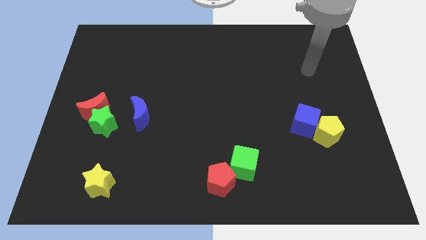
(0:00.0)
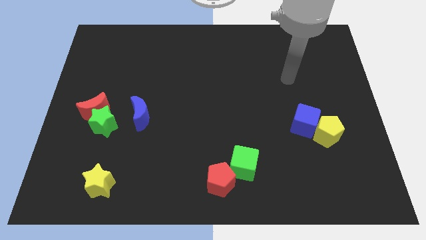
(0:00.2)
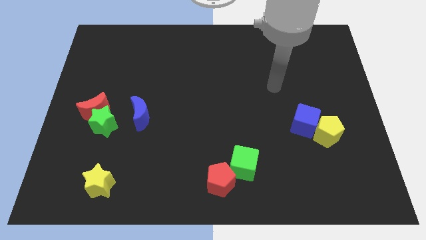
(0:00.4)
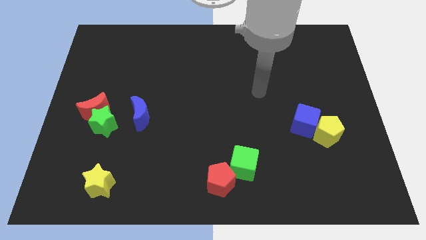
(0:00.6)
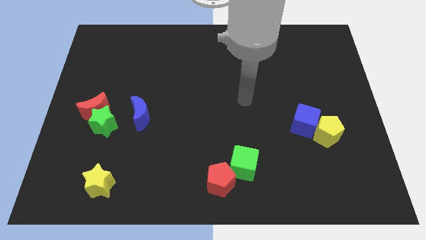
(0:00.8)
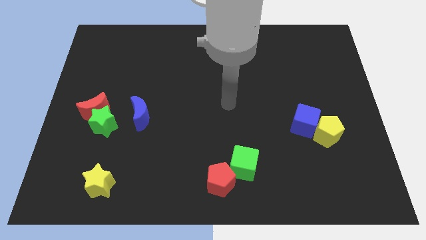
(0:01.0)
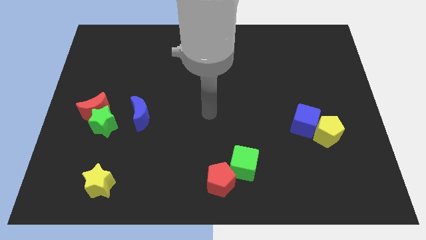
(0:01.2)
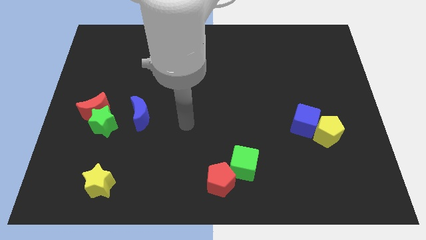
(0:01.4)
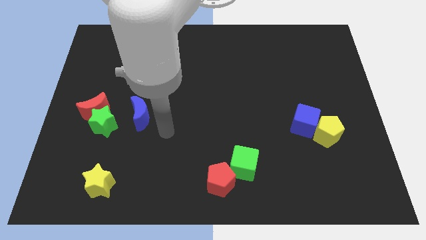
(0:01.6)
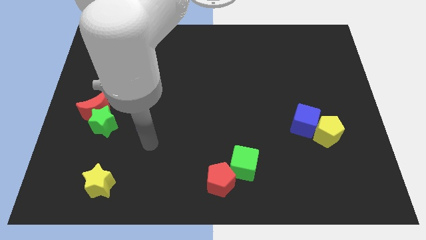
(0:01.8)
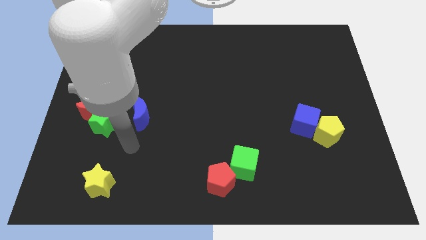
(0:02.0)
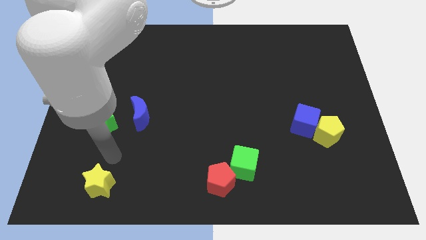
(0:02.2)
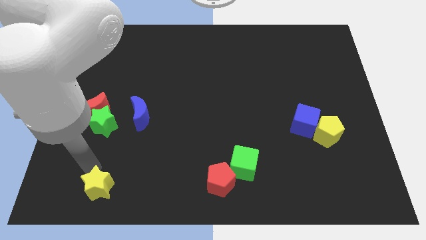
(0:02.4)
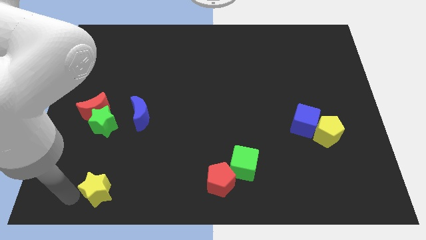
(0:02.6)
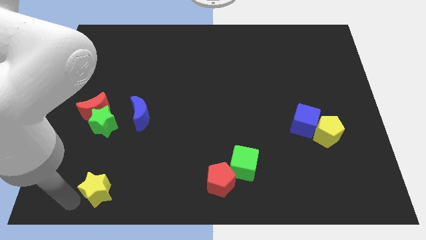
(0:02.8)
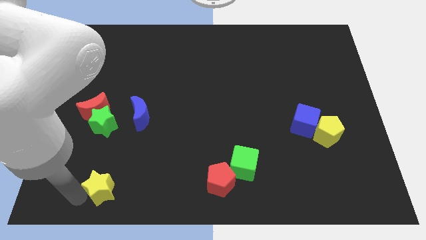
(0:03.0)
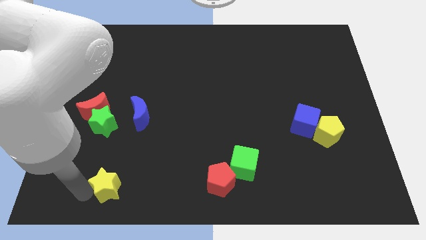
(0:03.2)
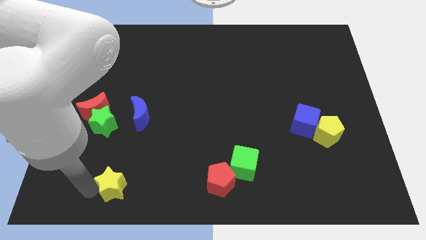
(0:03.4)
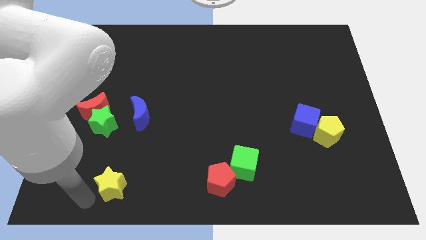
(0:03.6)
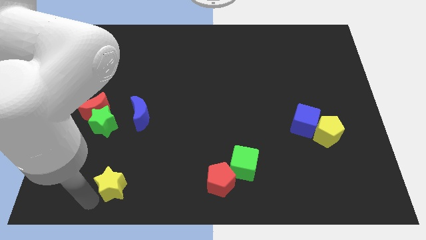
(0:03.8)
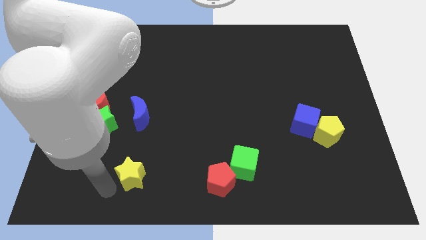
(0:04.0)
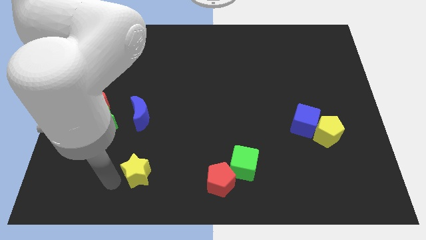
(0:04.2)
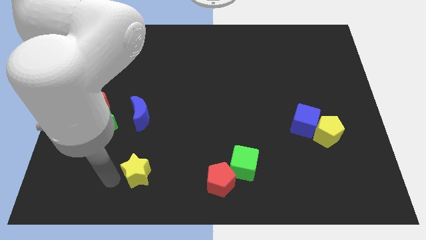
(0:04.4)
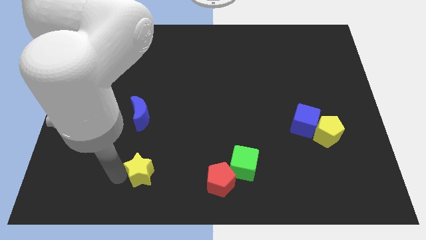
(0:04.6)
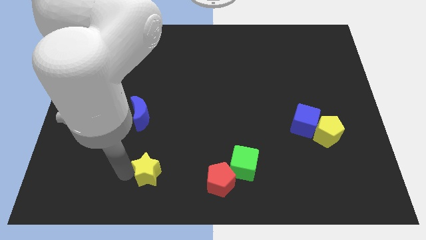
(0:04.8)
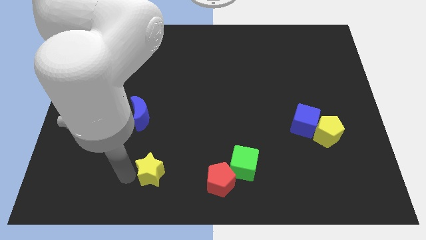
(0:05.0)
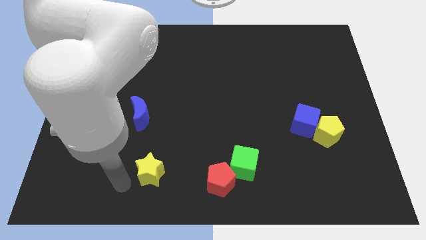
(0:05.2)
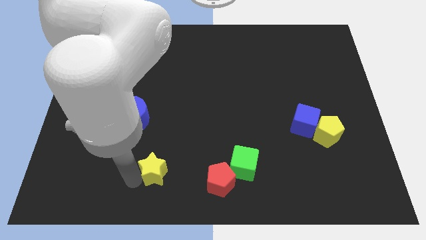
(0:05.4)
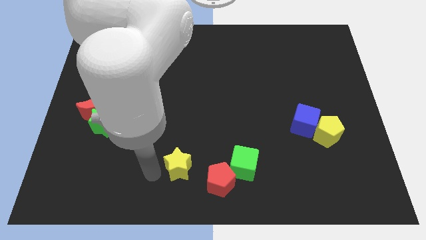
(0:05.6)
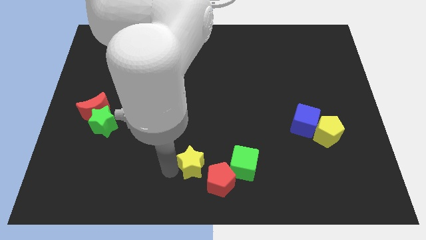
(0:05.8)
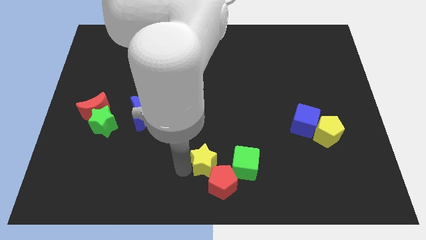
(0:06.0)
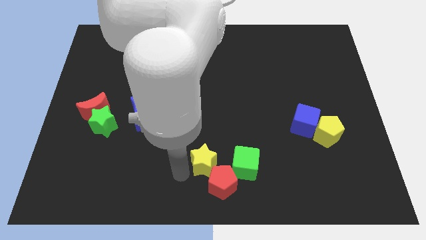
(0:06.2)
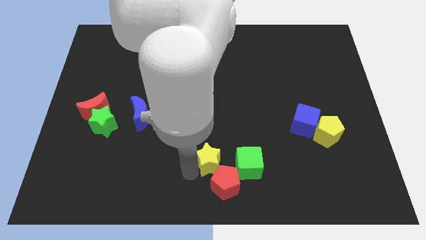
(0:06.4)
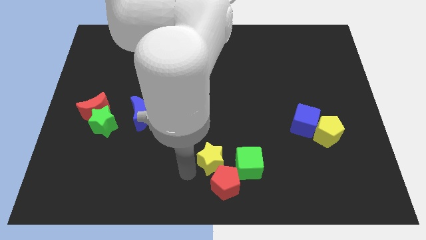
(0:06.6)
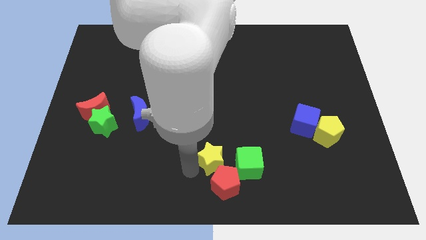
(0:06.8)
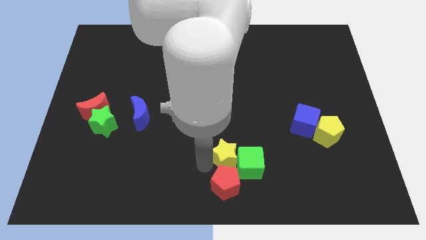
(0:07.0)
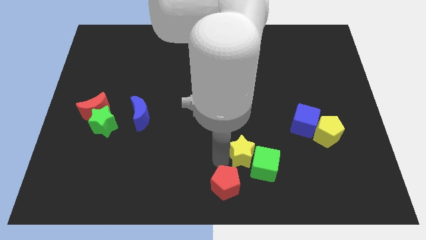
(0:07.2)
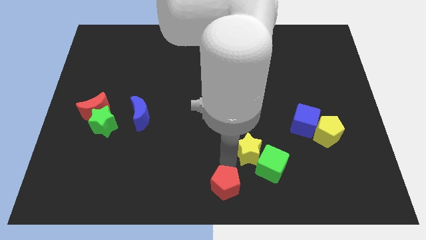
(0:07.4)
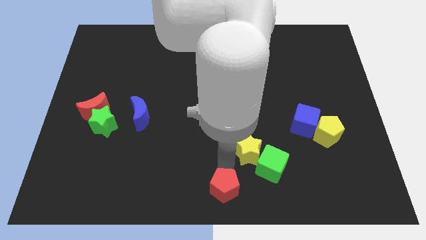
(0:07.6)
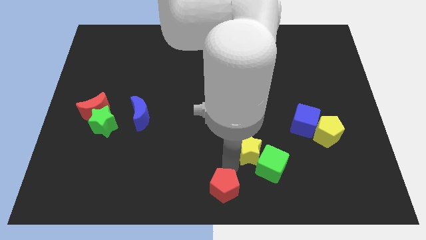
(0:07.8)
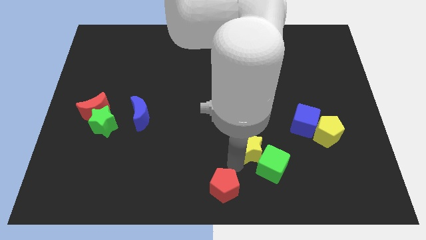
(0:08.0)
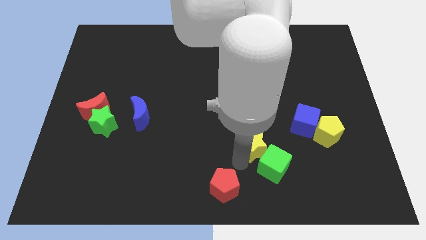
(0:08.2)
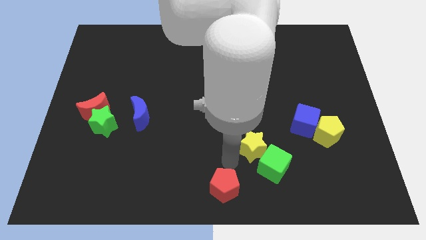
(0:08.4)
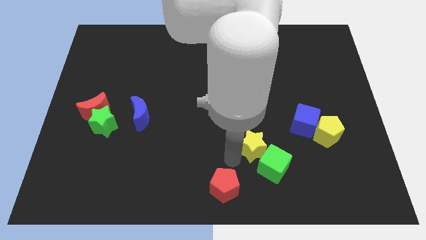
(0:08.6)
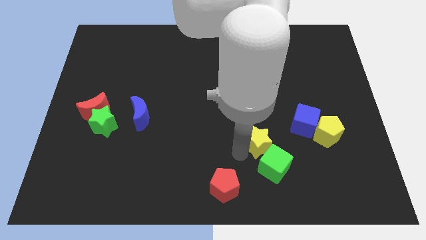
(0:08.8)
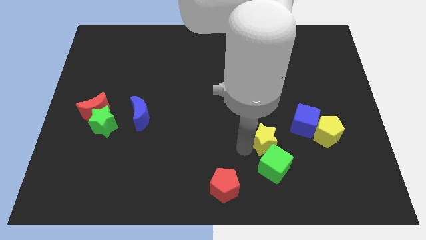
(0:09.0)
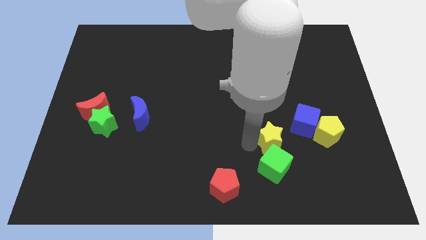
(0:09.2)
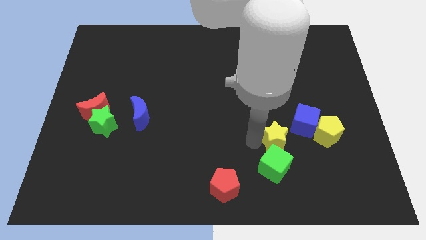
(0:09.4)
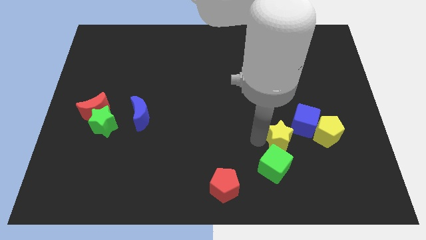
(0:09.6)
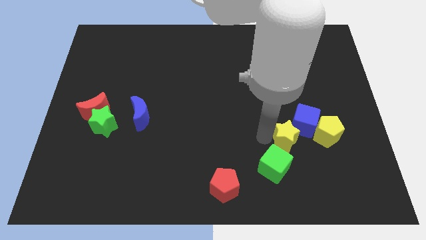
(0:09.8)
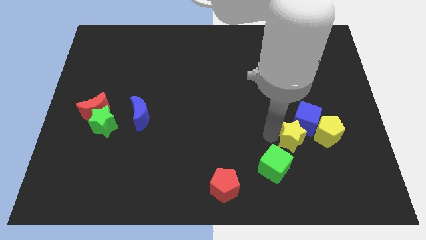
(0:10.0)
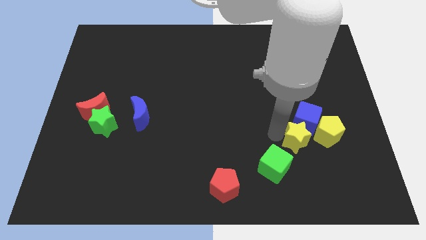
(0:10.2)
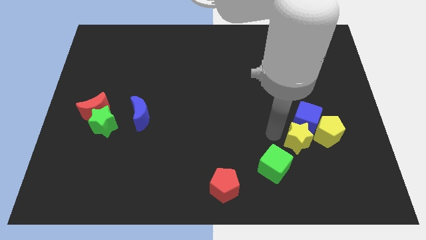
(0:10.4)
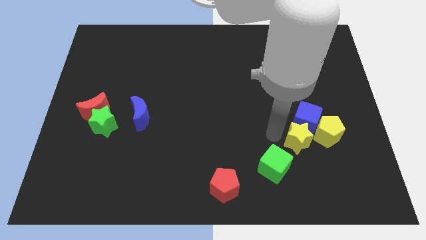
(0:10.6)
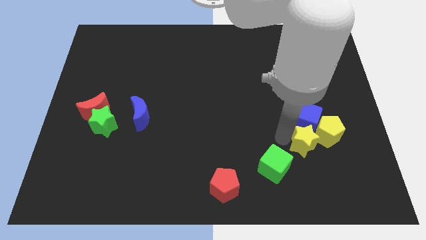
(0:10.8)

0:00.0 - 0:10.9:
put the yellow star to the yellow pentagon

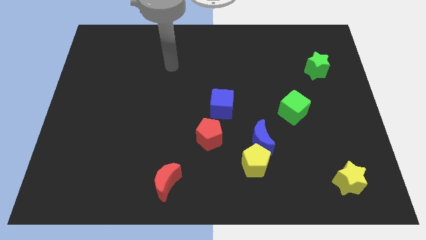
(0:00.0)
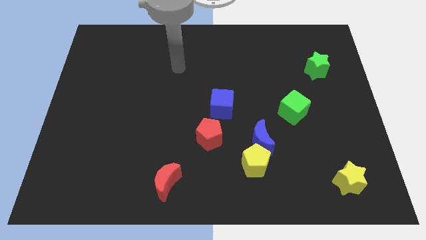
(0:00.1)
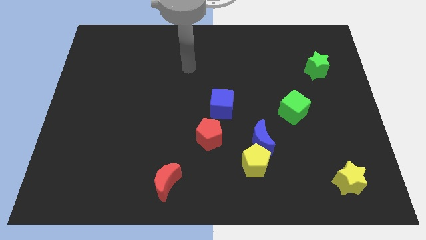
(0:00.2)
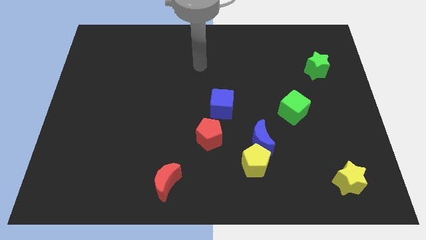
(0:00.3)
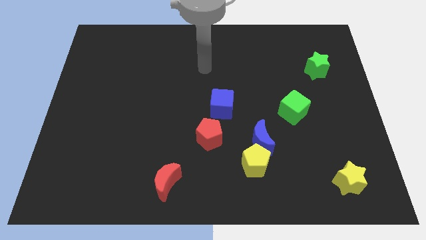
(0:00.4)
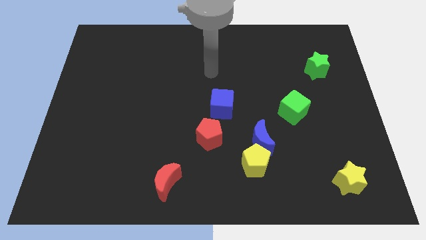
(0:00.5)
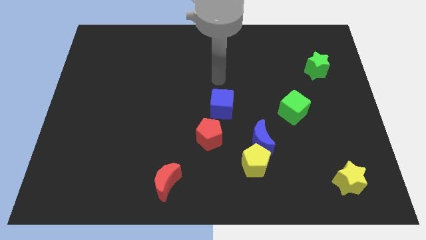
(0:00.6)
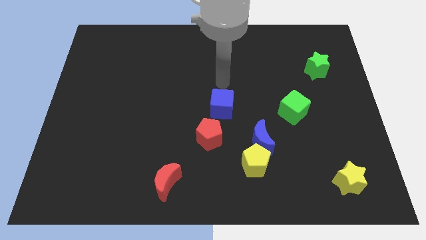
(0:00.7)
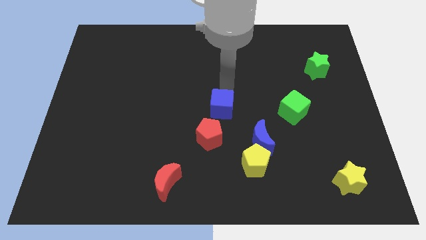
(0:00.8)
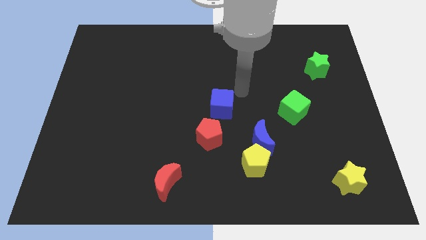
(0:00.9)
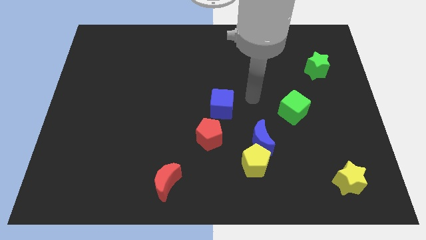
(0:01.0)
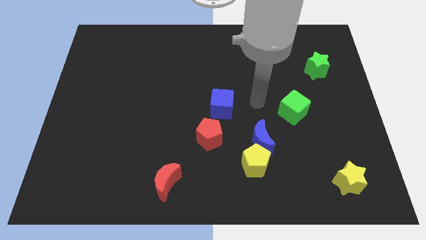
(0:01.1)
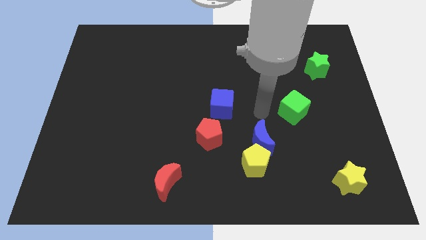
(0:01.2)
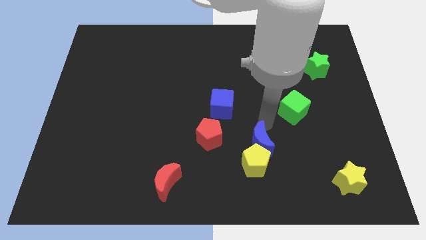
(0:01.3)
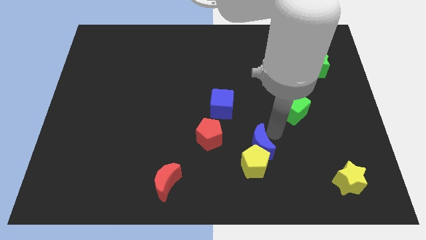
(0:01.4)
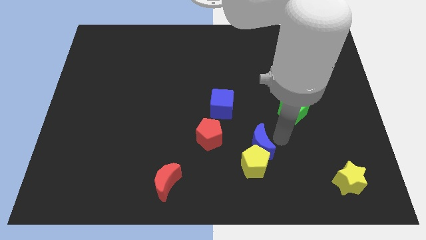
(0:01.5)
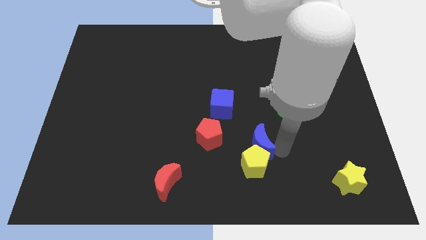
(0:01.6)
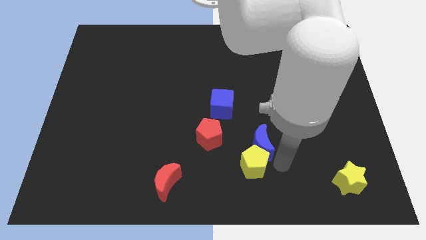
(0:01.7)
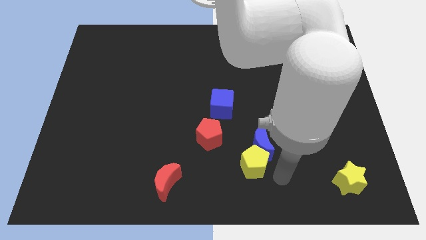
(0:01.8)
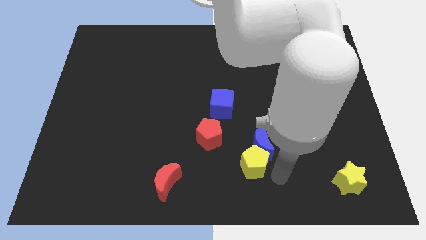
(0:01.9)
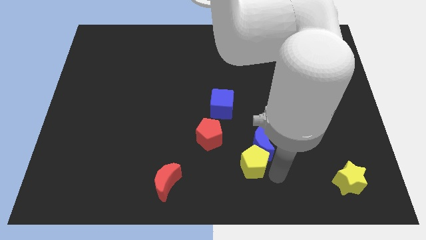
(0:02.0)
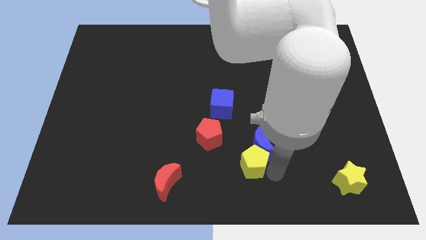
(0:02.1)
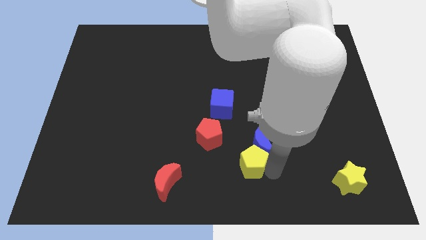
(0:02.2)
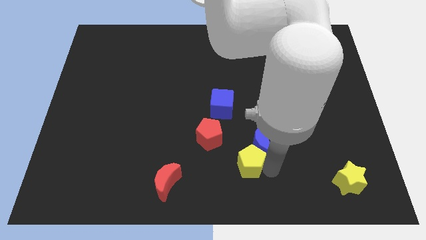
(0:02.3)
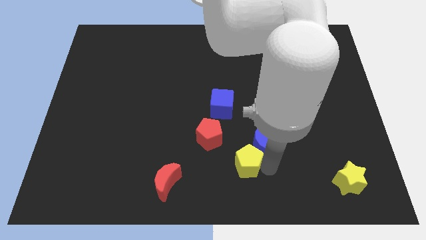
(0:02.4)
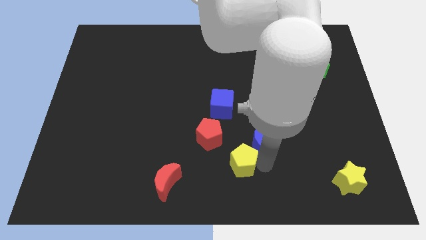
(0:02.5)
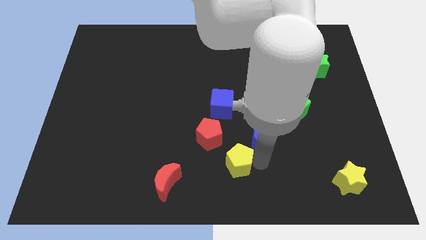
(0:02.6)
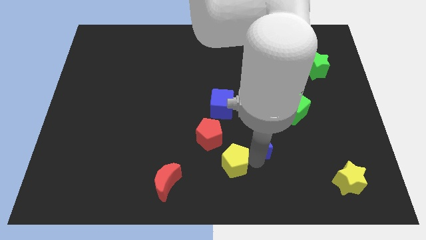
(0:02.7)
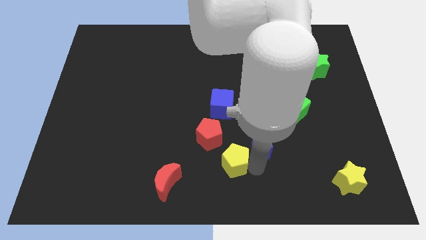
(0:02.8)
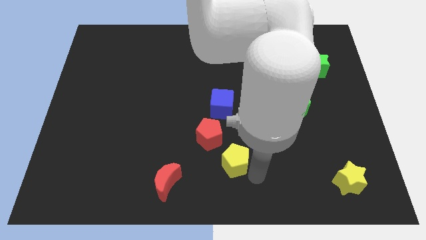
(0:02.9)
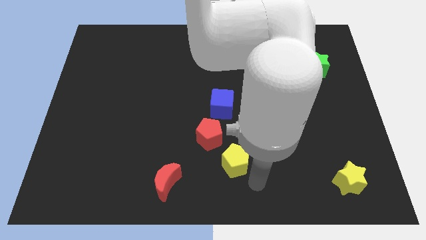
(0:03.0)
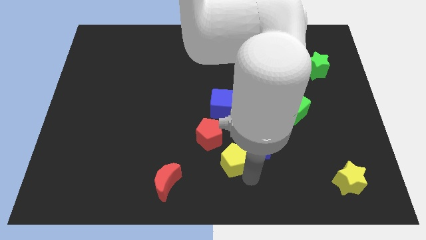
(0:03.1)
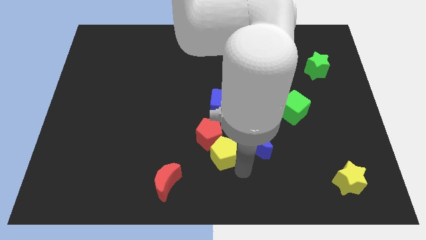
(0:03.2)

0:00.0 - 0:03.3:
put the yellow pentagon next to the red pentagon
